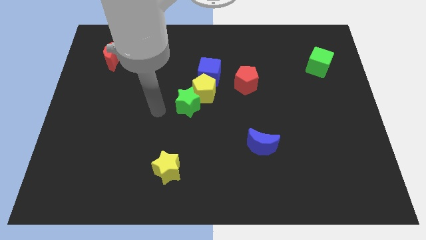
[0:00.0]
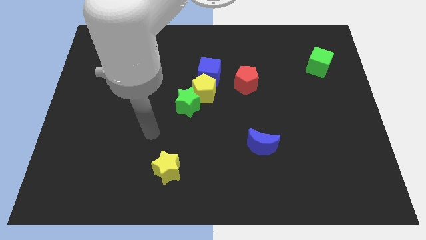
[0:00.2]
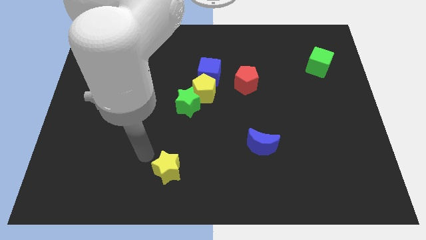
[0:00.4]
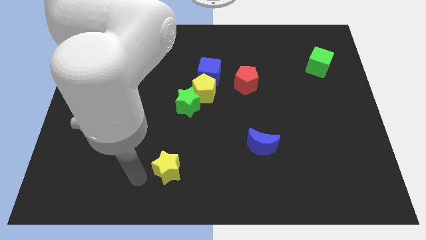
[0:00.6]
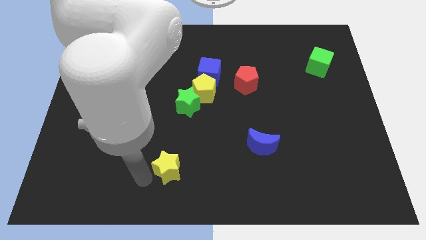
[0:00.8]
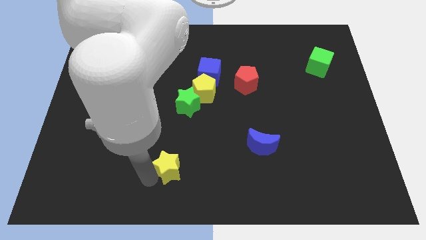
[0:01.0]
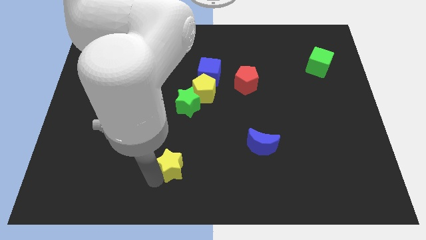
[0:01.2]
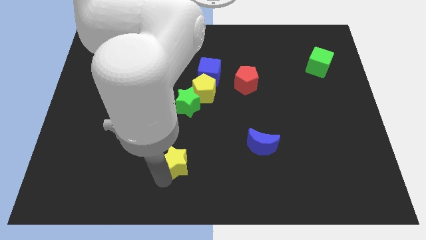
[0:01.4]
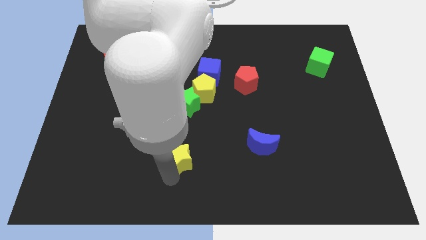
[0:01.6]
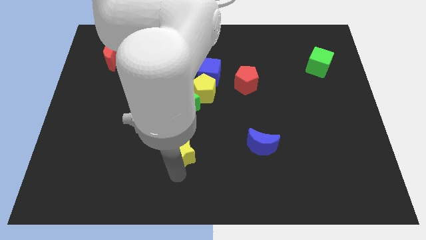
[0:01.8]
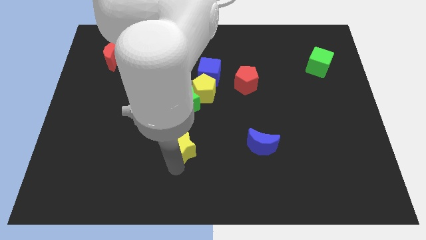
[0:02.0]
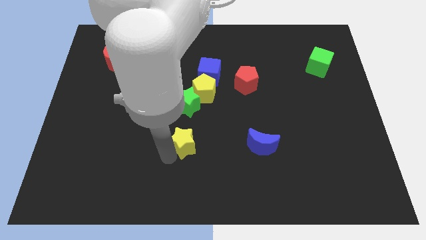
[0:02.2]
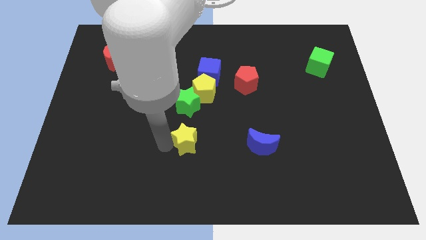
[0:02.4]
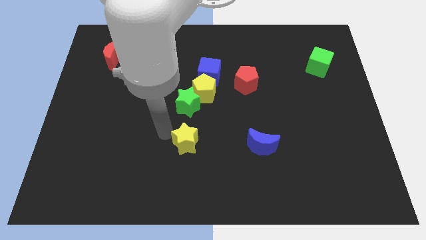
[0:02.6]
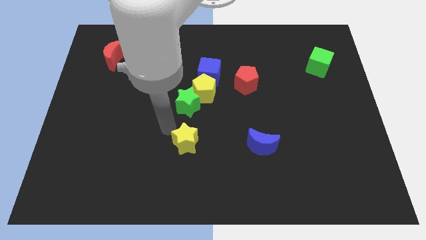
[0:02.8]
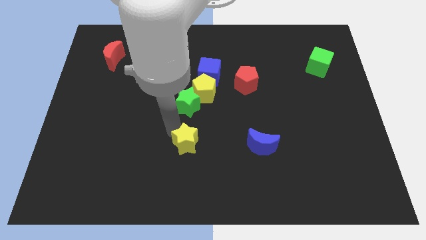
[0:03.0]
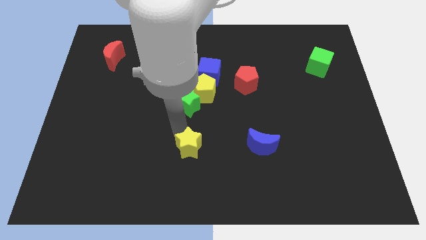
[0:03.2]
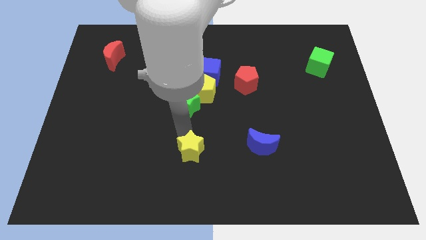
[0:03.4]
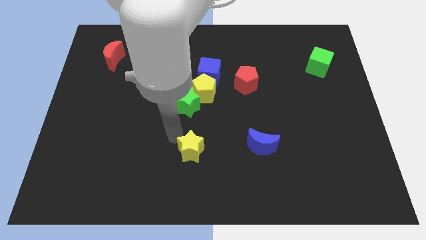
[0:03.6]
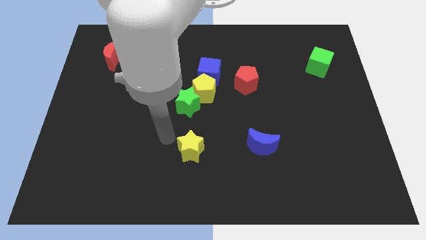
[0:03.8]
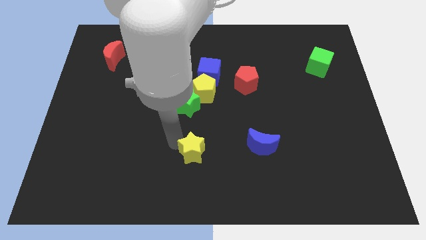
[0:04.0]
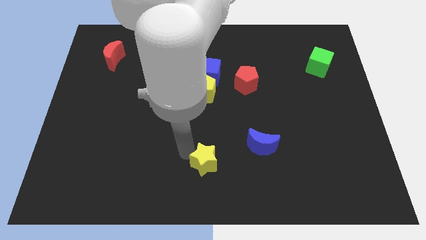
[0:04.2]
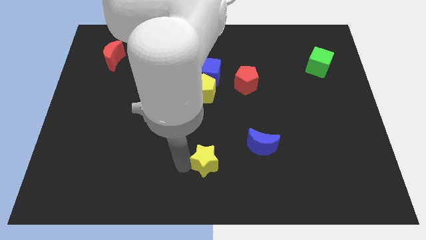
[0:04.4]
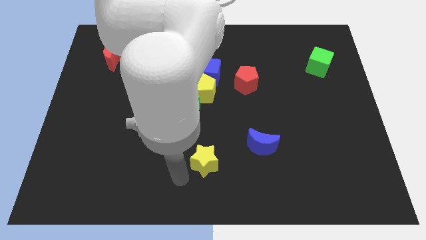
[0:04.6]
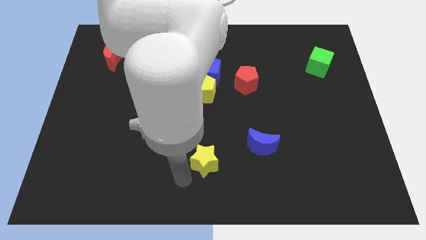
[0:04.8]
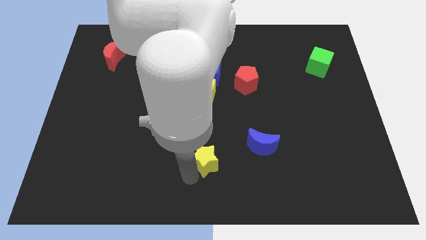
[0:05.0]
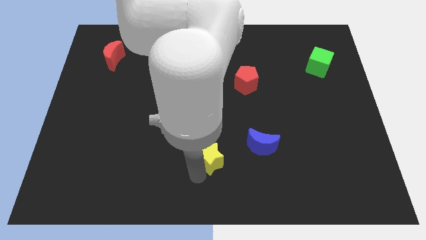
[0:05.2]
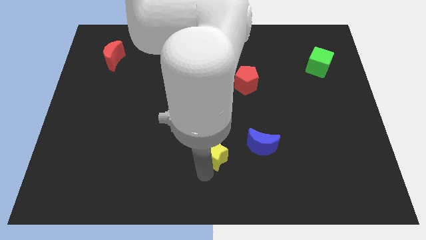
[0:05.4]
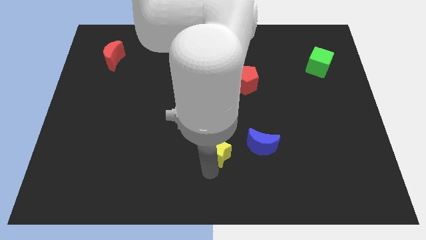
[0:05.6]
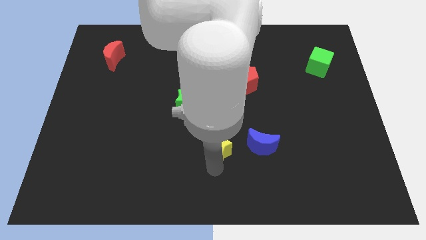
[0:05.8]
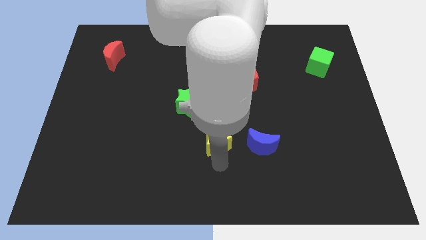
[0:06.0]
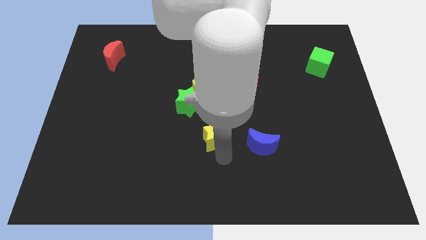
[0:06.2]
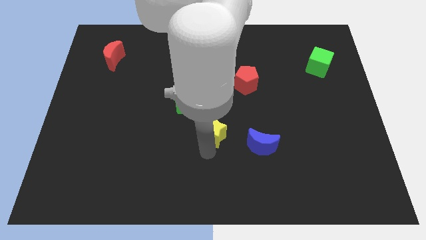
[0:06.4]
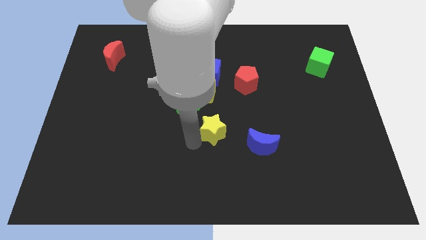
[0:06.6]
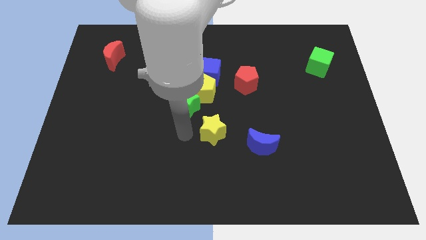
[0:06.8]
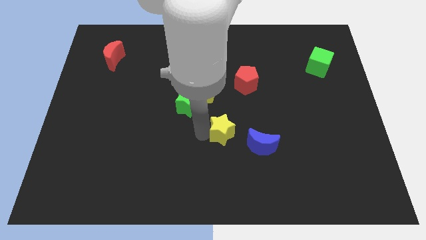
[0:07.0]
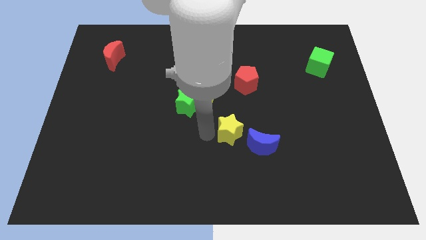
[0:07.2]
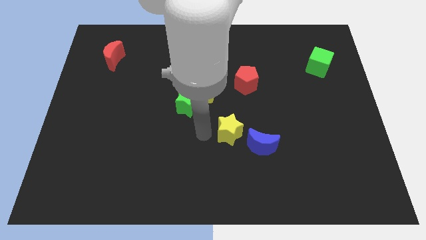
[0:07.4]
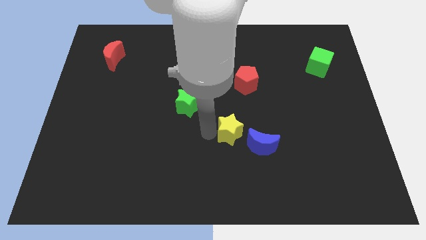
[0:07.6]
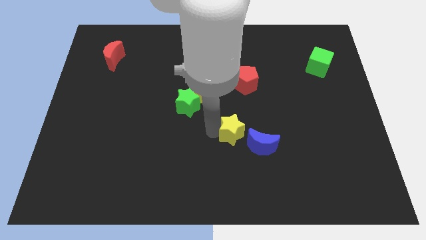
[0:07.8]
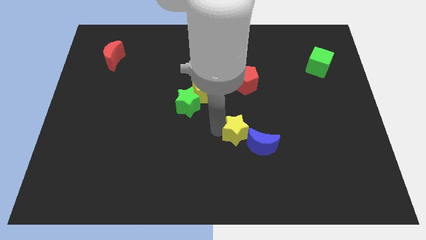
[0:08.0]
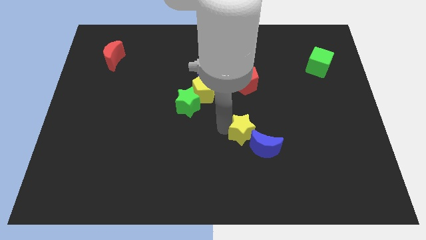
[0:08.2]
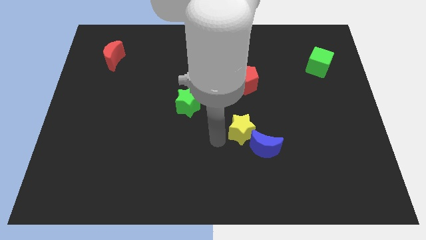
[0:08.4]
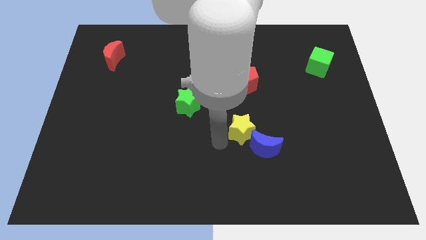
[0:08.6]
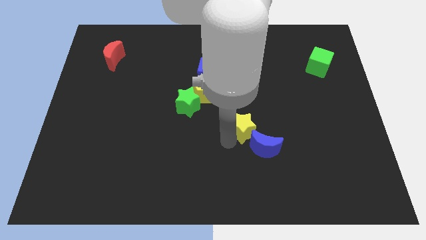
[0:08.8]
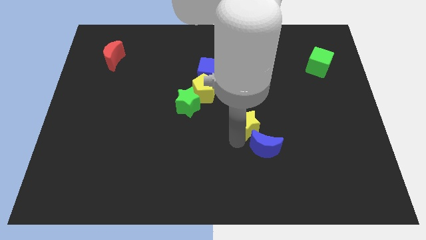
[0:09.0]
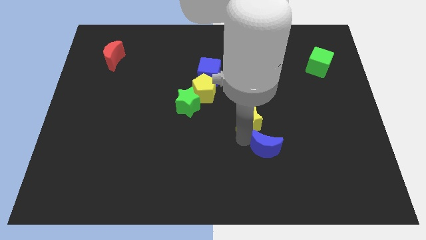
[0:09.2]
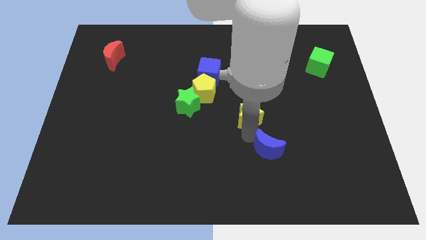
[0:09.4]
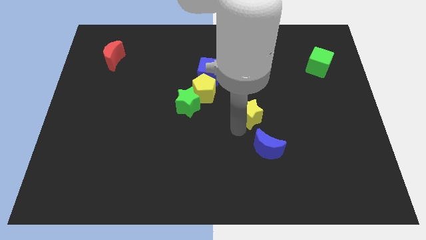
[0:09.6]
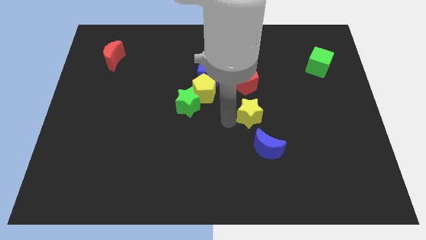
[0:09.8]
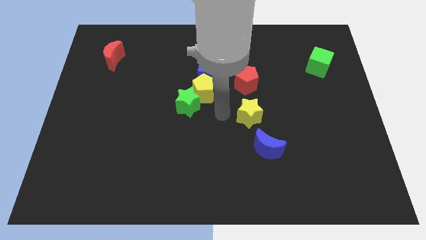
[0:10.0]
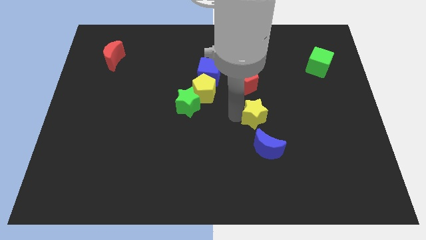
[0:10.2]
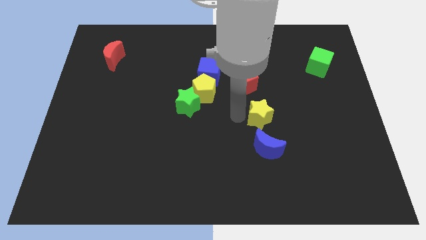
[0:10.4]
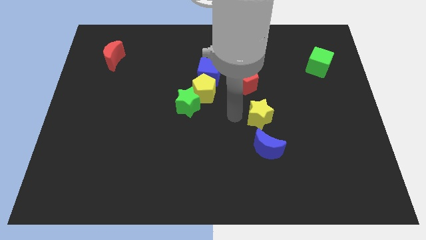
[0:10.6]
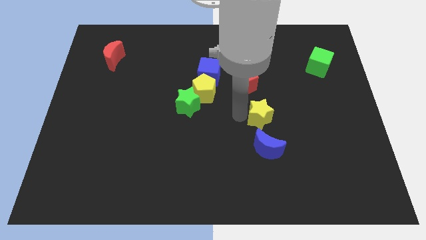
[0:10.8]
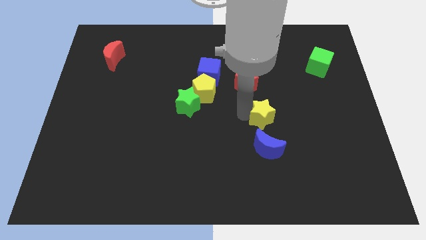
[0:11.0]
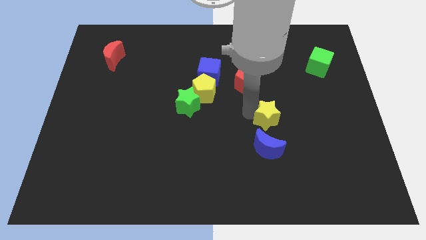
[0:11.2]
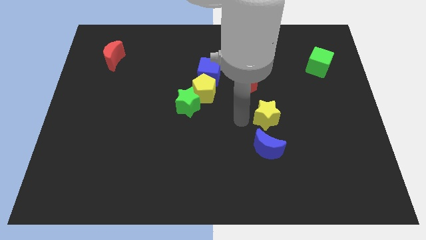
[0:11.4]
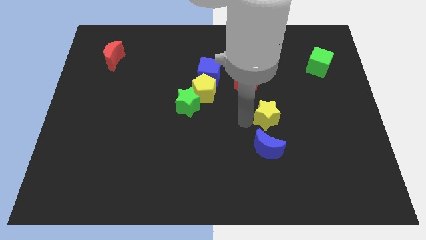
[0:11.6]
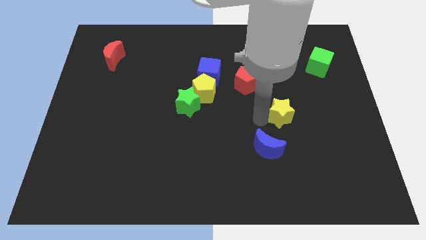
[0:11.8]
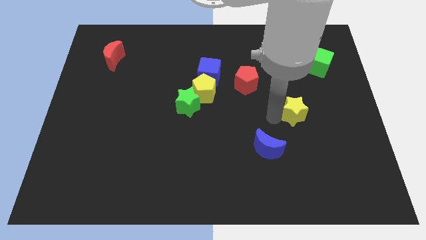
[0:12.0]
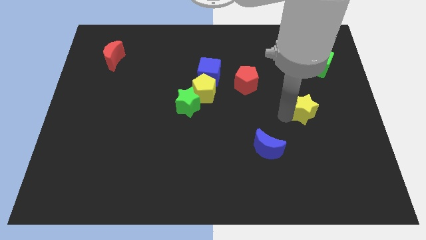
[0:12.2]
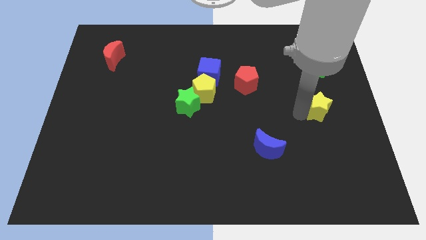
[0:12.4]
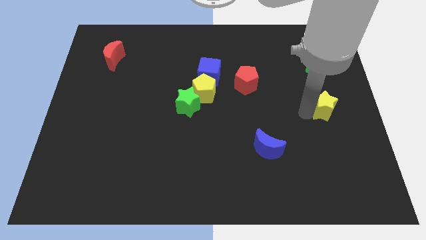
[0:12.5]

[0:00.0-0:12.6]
move the yellow star to the right side
